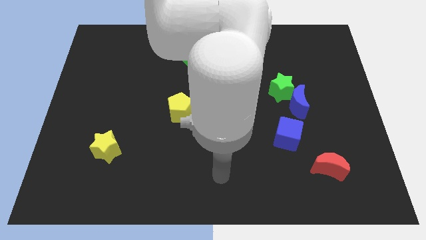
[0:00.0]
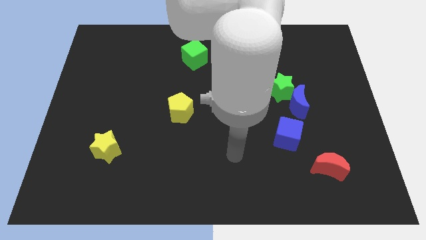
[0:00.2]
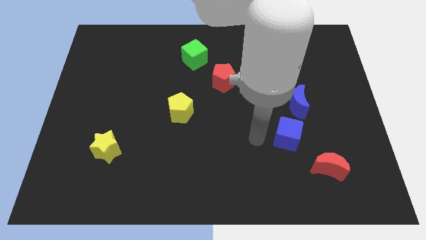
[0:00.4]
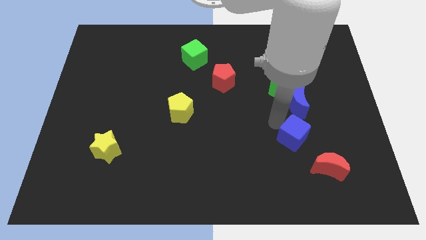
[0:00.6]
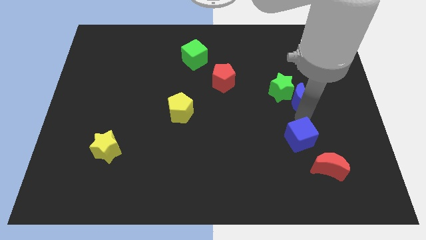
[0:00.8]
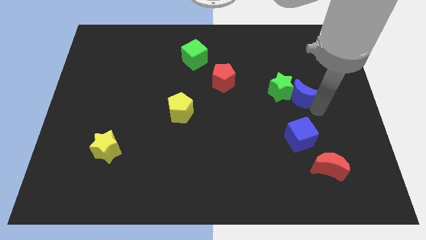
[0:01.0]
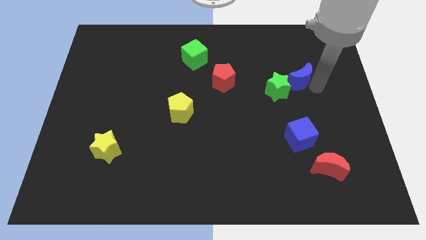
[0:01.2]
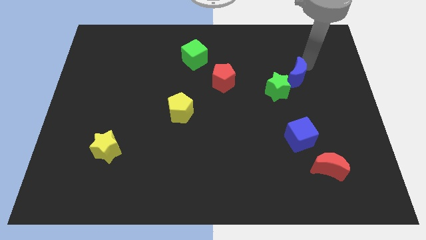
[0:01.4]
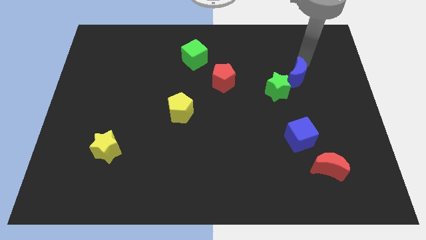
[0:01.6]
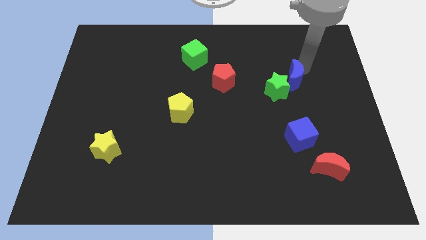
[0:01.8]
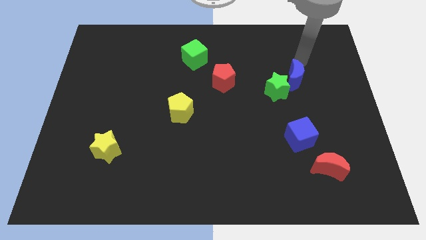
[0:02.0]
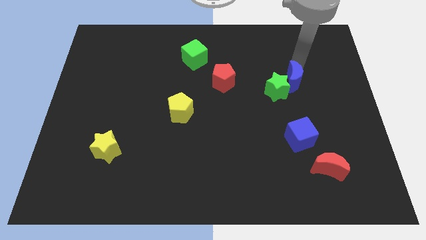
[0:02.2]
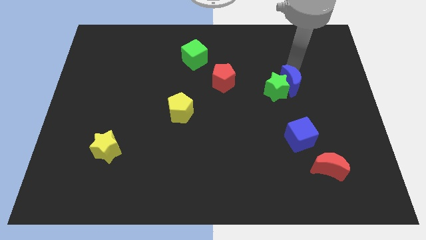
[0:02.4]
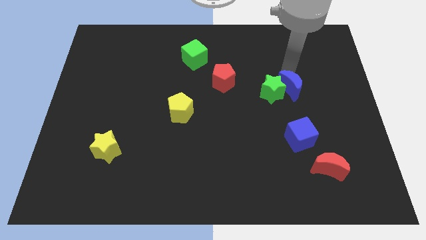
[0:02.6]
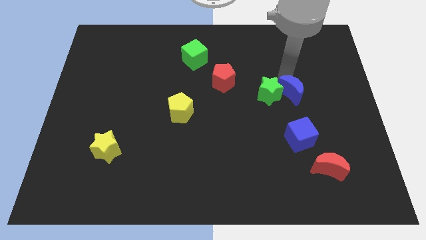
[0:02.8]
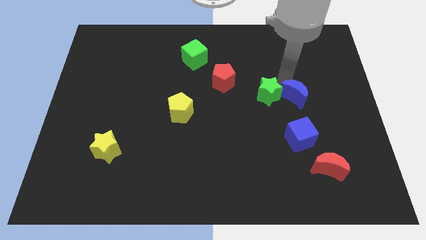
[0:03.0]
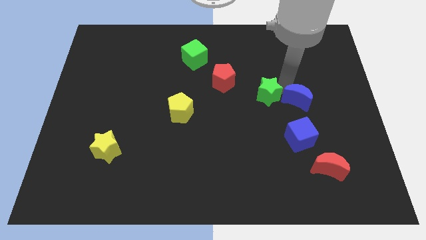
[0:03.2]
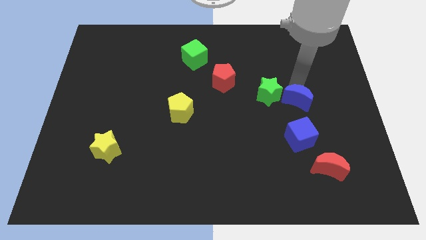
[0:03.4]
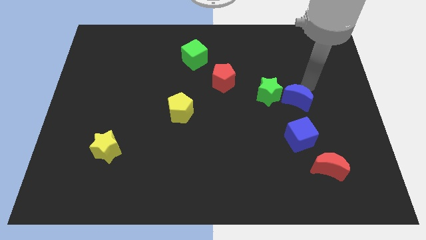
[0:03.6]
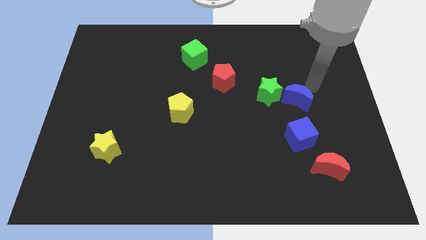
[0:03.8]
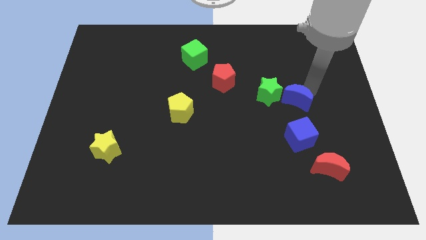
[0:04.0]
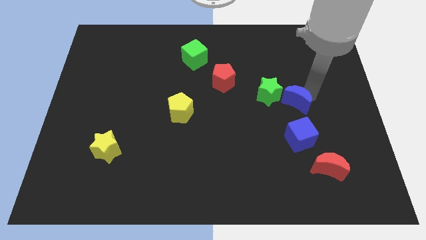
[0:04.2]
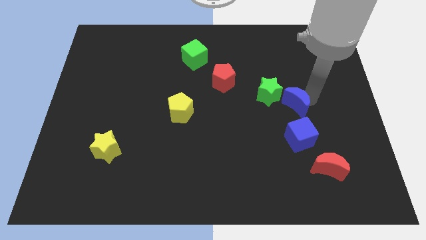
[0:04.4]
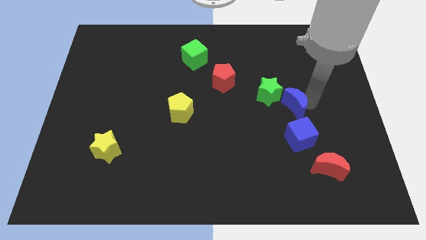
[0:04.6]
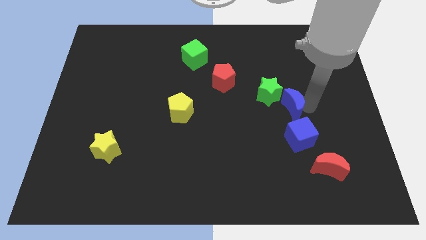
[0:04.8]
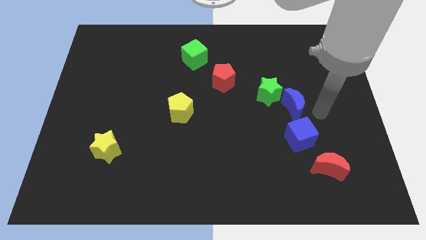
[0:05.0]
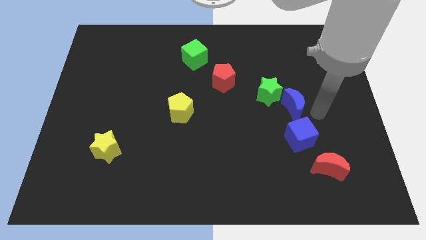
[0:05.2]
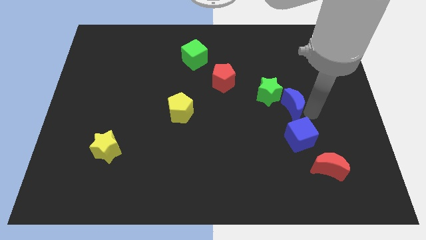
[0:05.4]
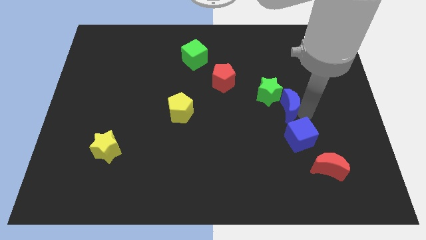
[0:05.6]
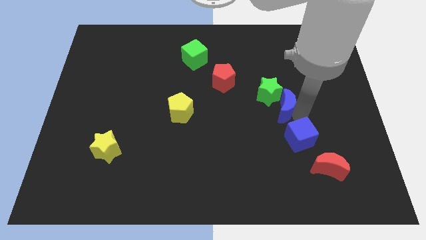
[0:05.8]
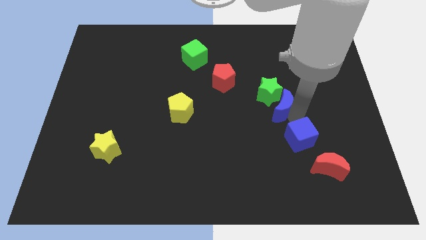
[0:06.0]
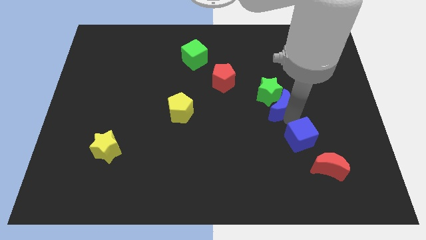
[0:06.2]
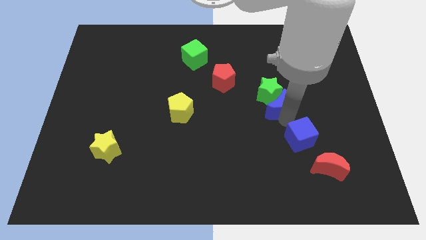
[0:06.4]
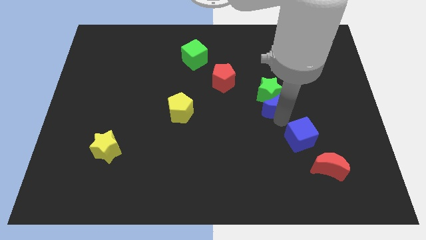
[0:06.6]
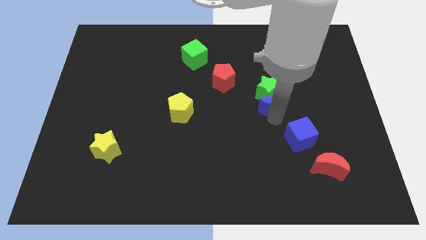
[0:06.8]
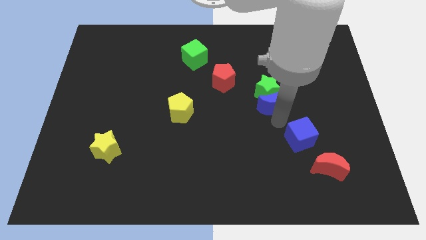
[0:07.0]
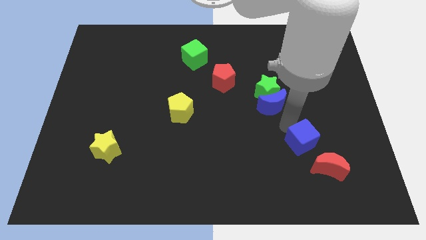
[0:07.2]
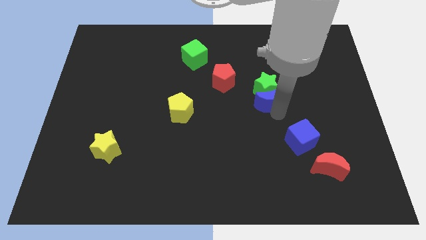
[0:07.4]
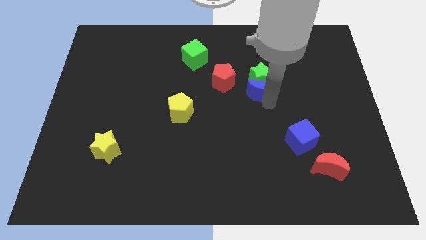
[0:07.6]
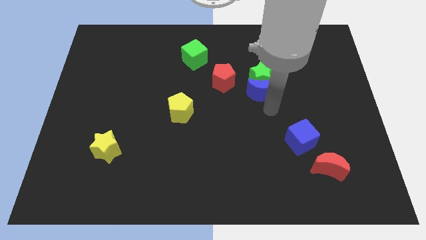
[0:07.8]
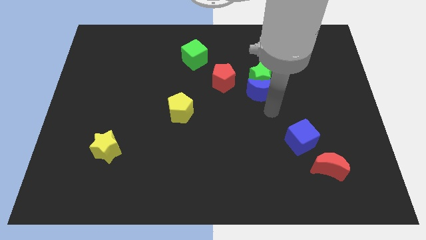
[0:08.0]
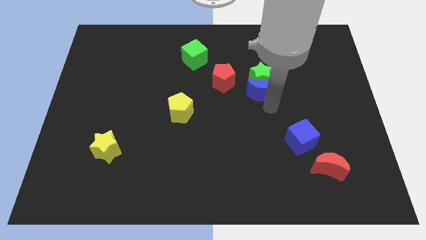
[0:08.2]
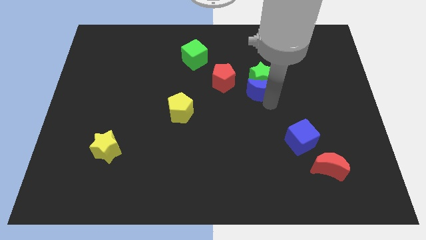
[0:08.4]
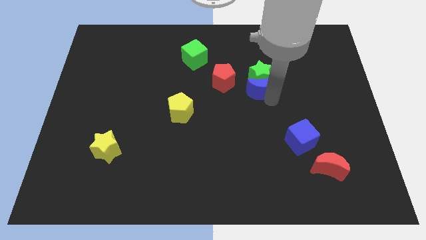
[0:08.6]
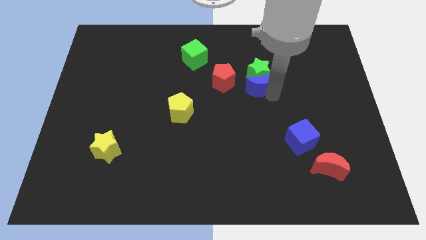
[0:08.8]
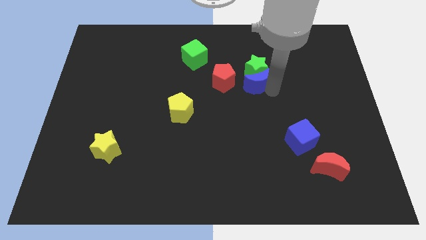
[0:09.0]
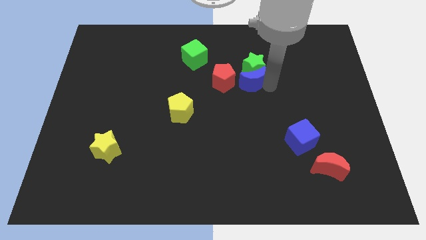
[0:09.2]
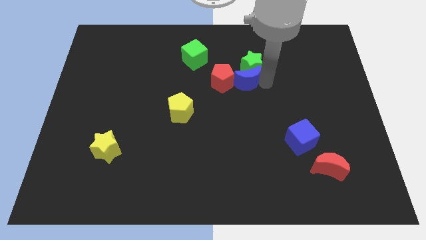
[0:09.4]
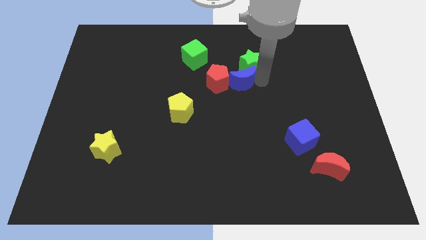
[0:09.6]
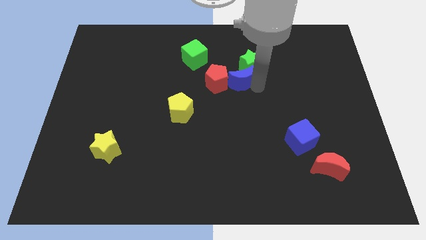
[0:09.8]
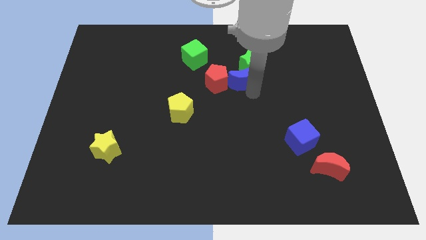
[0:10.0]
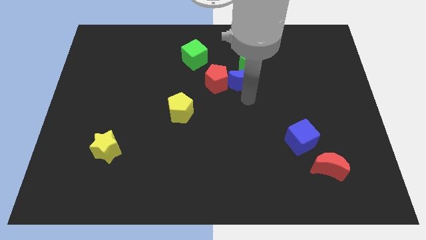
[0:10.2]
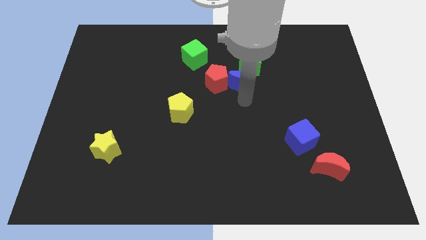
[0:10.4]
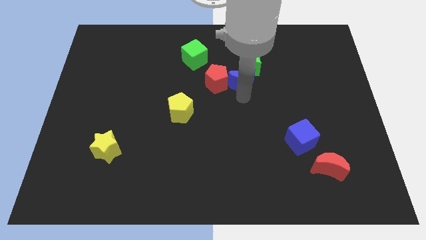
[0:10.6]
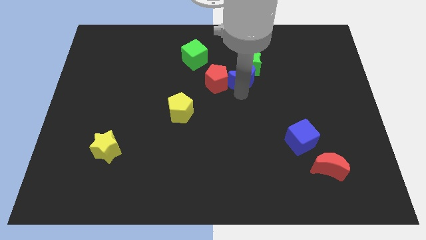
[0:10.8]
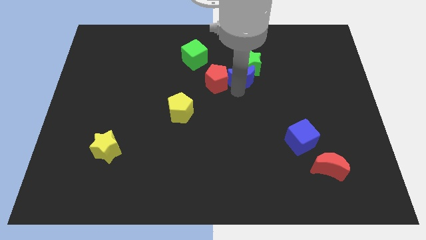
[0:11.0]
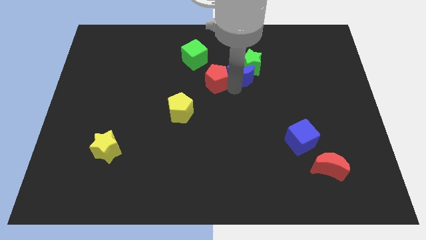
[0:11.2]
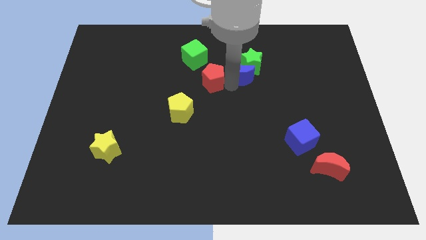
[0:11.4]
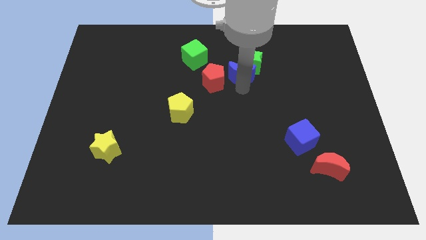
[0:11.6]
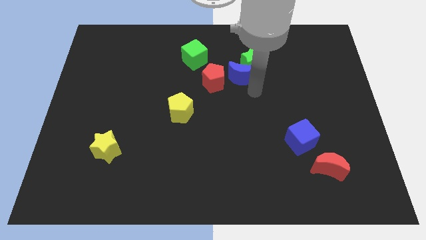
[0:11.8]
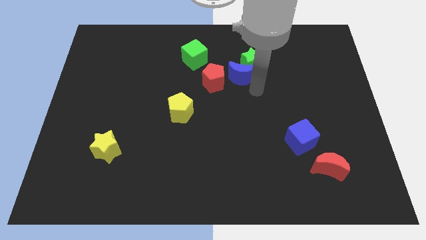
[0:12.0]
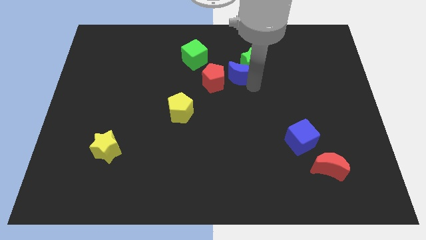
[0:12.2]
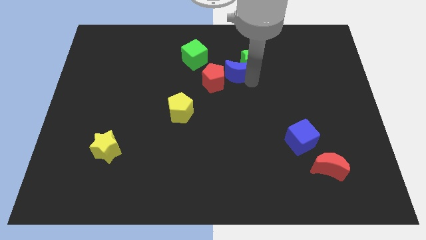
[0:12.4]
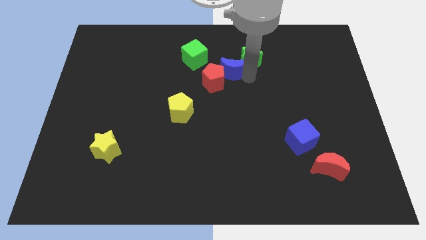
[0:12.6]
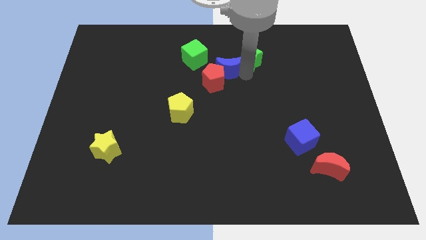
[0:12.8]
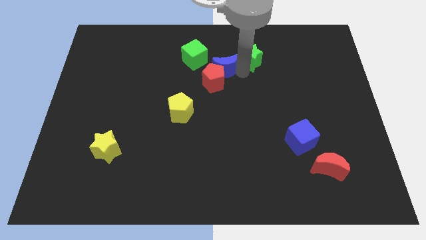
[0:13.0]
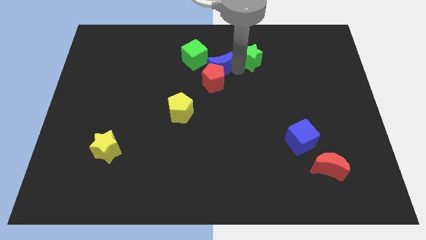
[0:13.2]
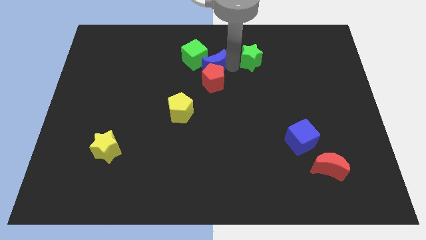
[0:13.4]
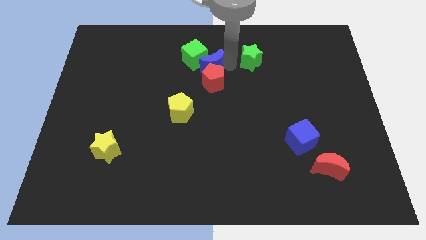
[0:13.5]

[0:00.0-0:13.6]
push the blue moon towards the green cube
